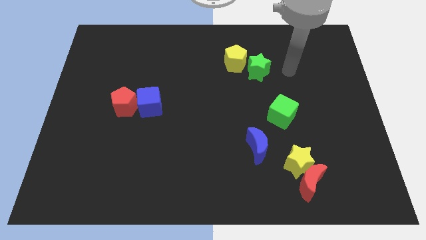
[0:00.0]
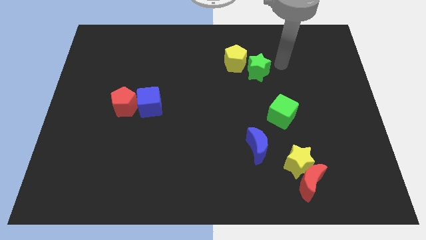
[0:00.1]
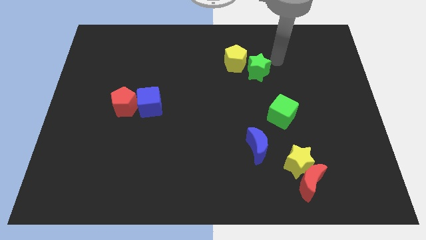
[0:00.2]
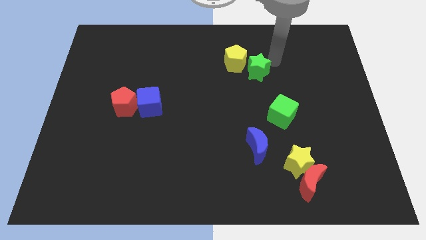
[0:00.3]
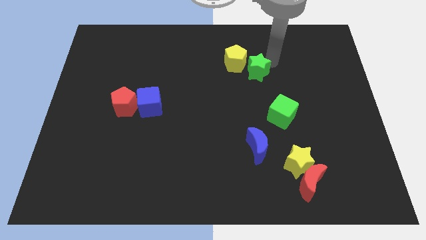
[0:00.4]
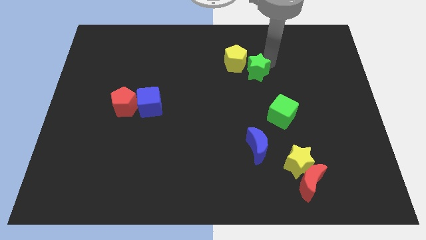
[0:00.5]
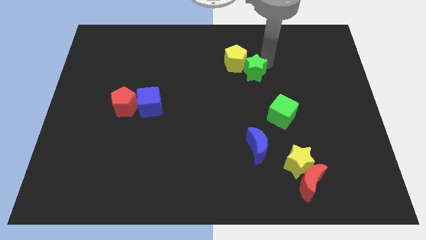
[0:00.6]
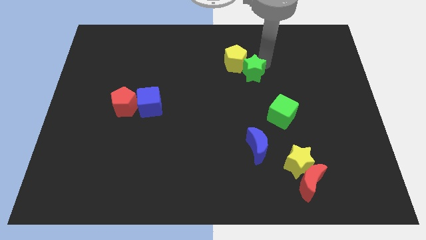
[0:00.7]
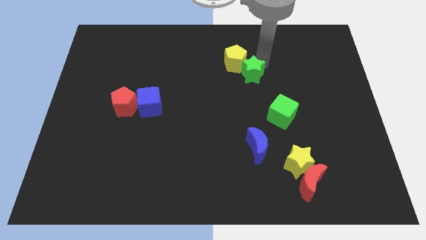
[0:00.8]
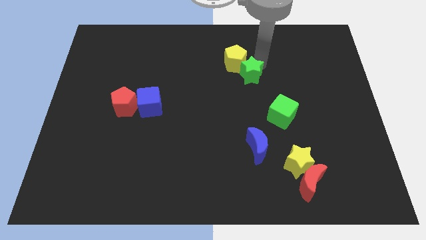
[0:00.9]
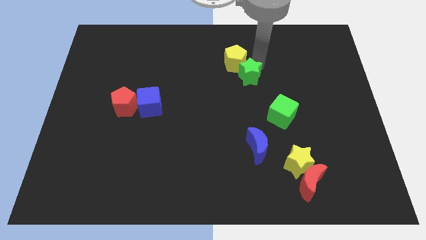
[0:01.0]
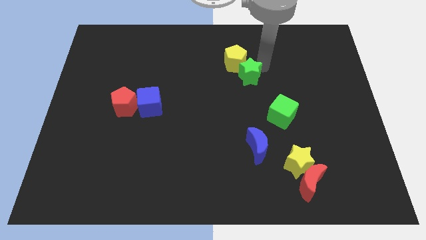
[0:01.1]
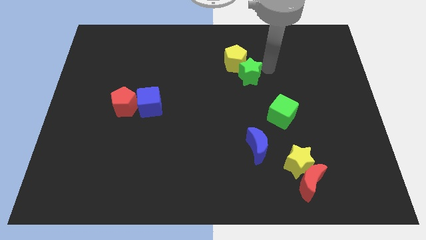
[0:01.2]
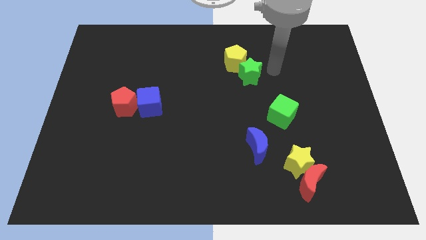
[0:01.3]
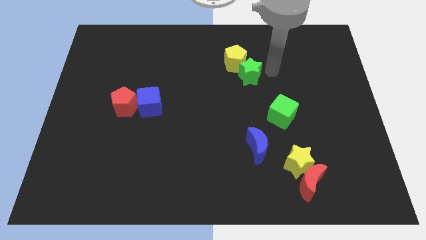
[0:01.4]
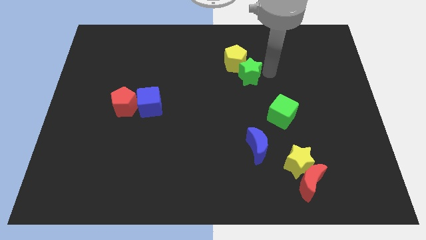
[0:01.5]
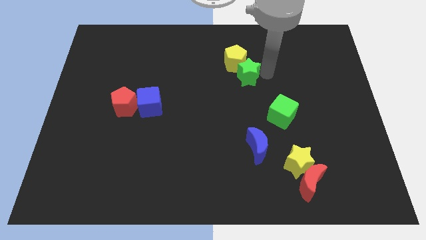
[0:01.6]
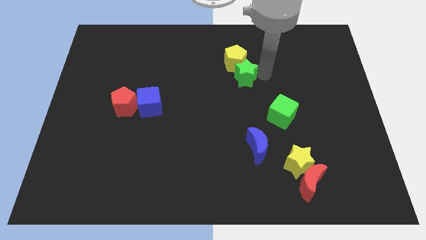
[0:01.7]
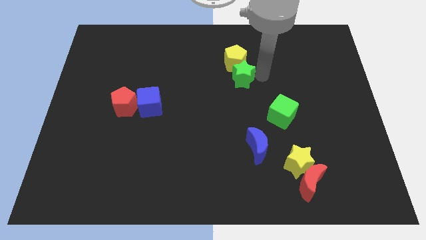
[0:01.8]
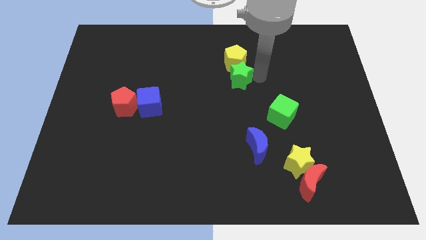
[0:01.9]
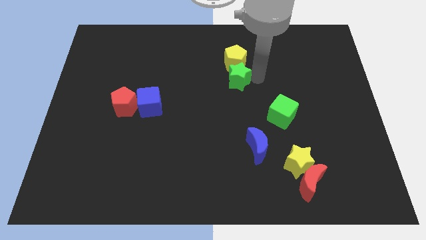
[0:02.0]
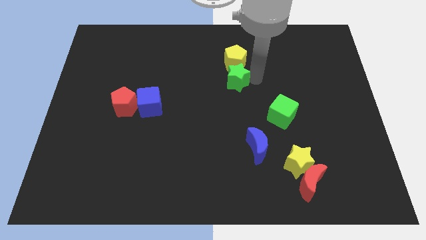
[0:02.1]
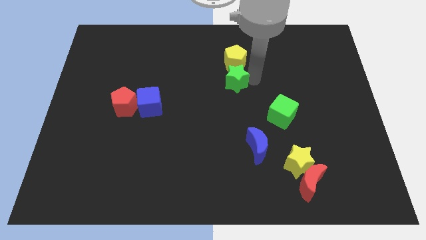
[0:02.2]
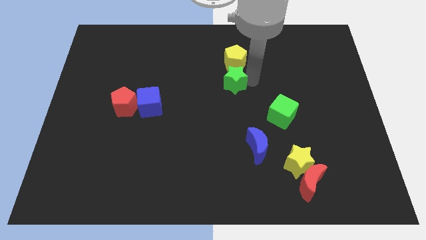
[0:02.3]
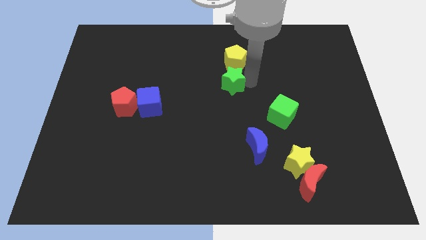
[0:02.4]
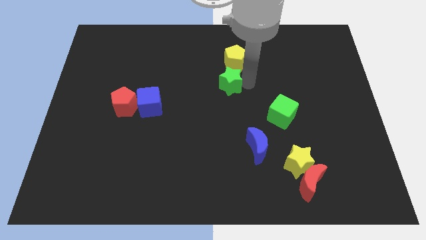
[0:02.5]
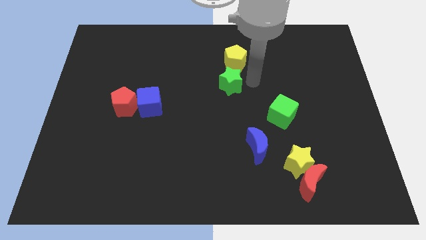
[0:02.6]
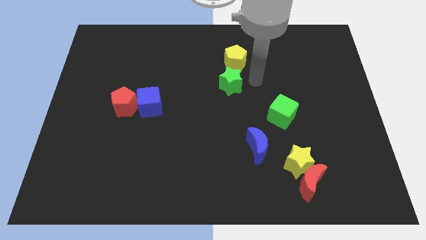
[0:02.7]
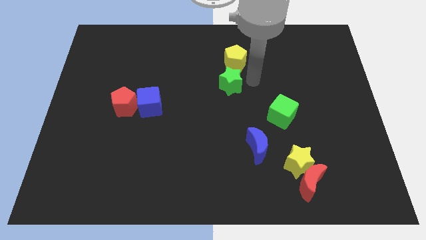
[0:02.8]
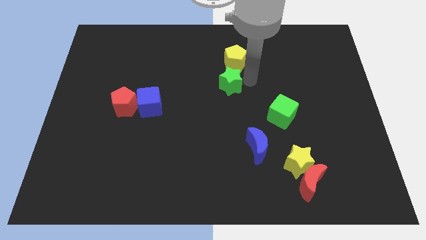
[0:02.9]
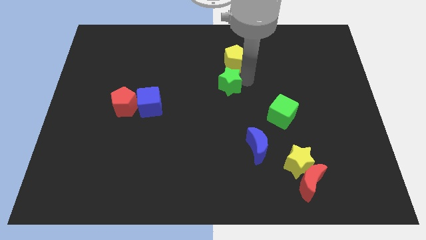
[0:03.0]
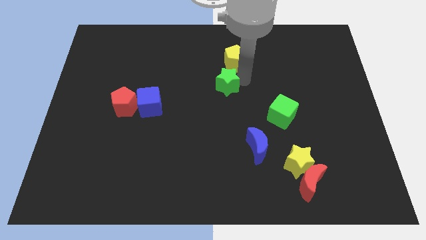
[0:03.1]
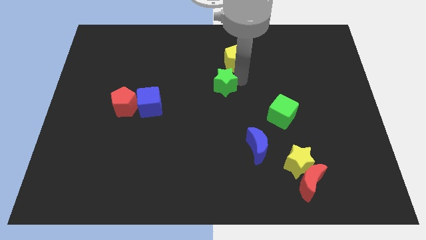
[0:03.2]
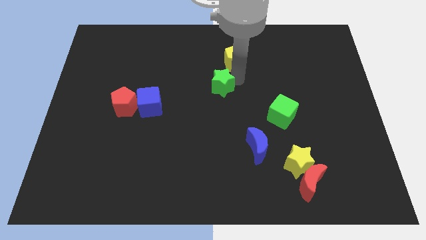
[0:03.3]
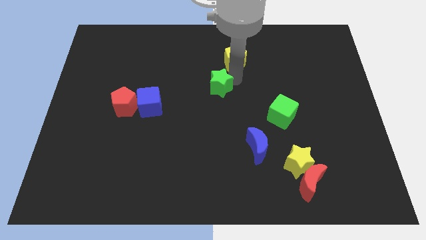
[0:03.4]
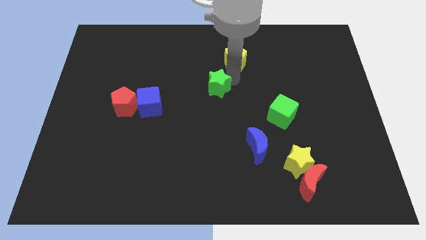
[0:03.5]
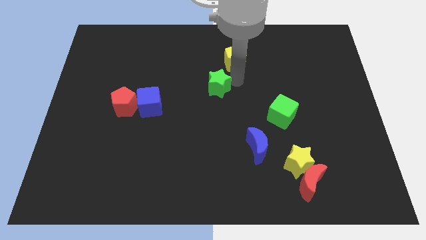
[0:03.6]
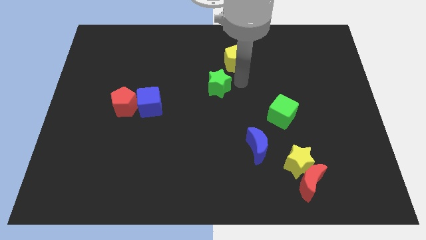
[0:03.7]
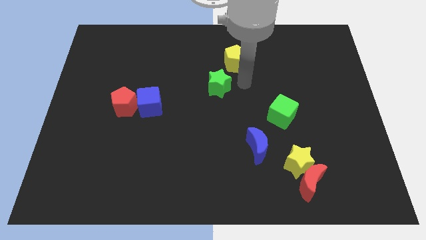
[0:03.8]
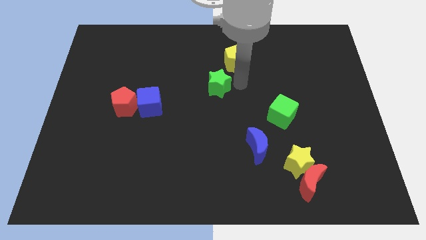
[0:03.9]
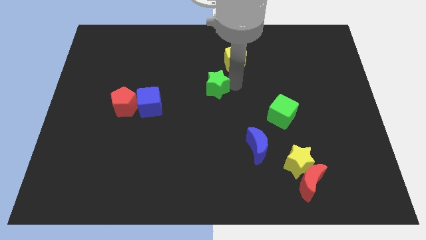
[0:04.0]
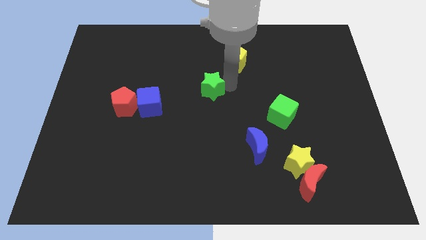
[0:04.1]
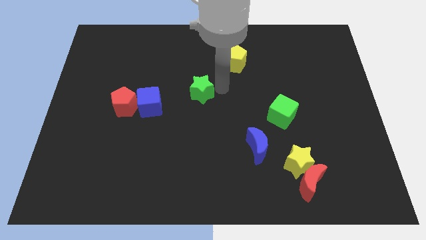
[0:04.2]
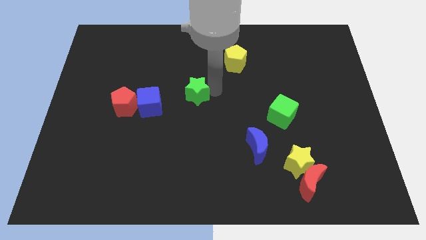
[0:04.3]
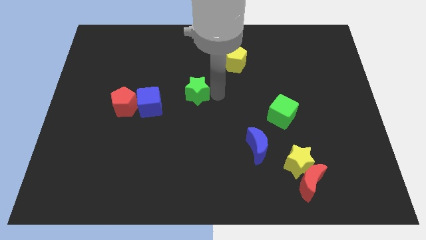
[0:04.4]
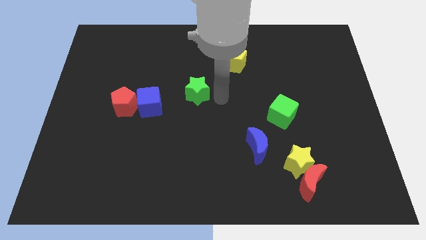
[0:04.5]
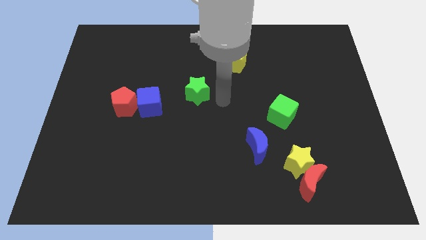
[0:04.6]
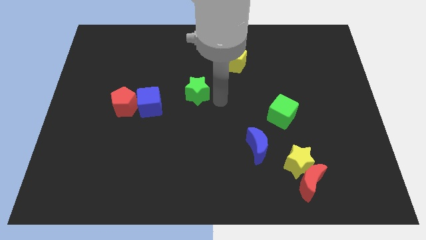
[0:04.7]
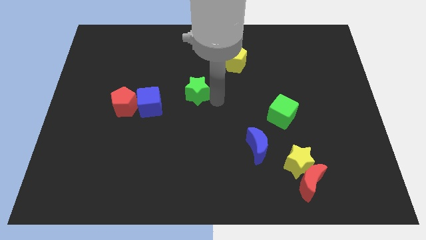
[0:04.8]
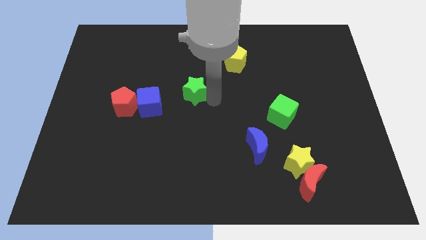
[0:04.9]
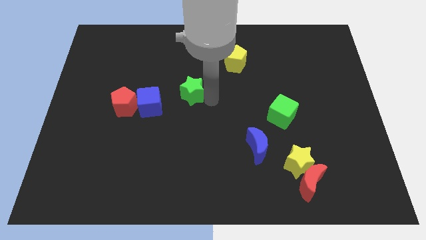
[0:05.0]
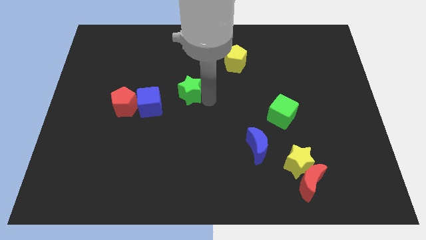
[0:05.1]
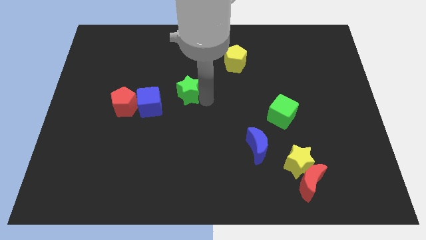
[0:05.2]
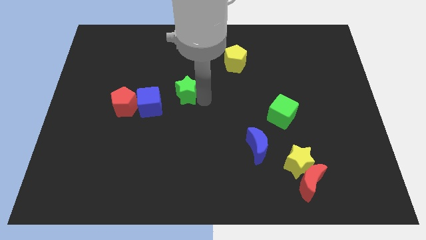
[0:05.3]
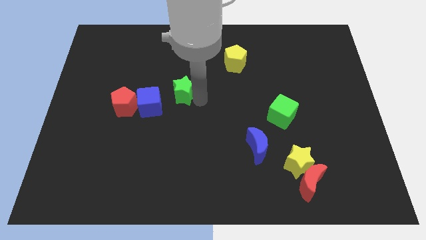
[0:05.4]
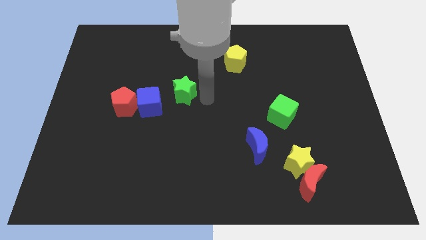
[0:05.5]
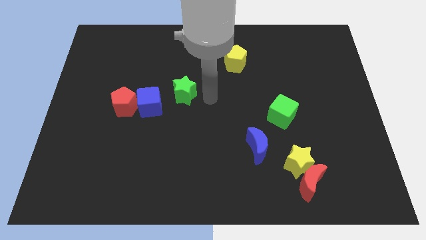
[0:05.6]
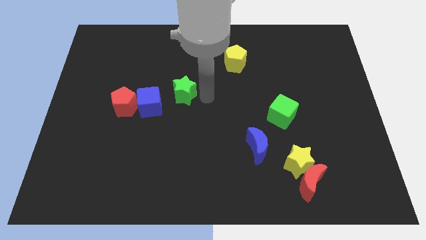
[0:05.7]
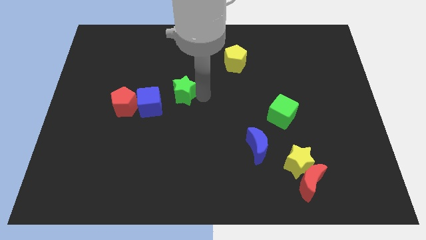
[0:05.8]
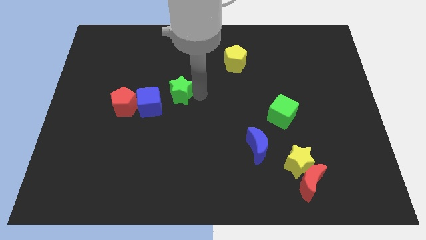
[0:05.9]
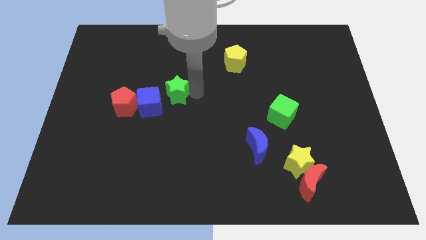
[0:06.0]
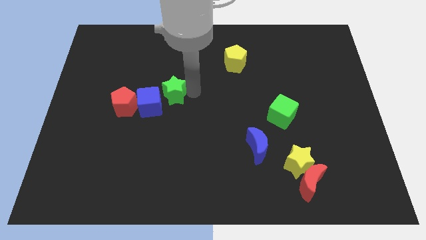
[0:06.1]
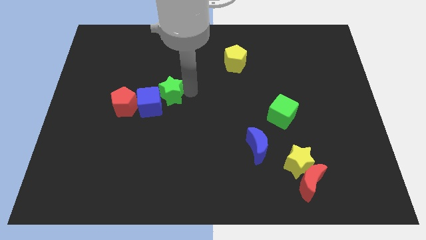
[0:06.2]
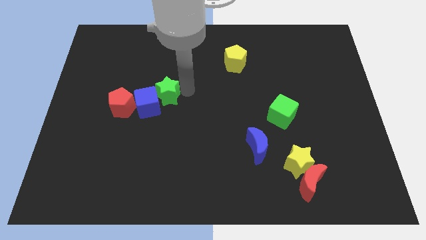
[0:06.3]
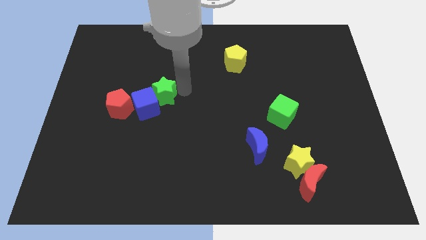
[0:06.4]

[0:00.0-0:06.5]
move the green star to the top right side of the red pentagon
